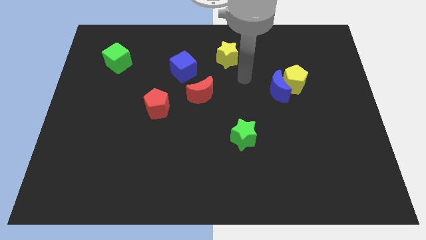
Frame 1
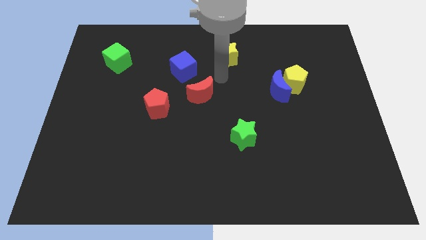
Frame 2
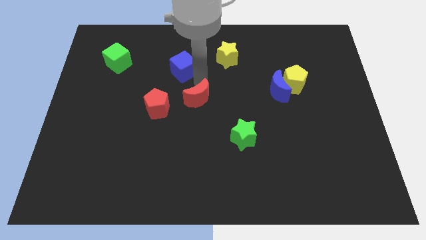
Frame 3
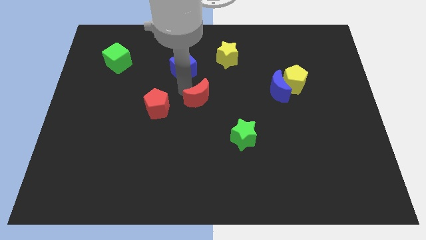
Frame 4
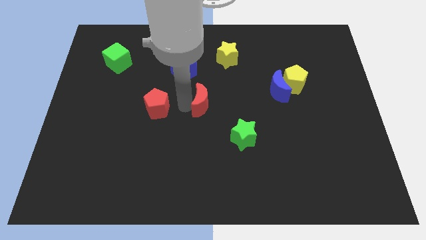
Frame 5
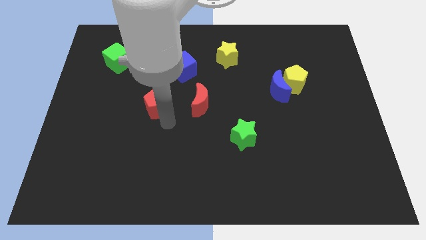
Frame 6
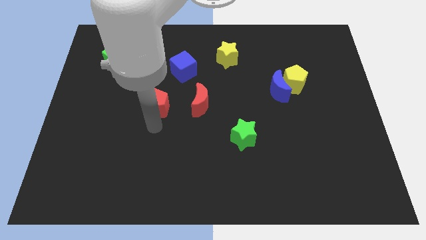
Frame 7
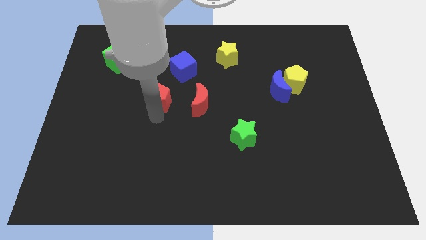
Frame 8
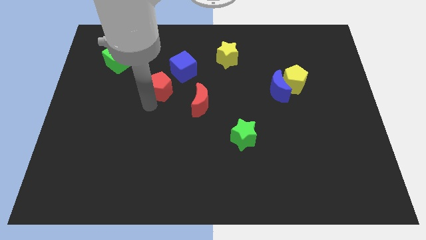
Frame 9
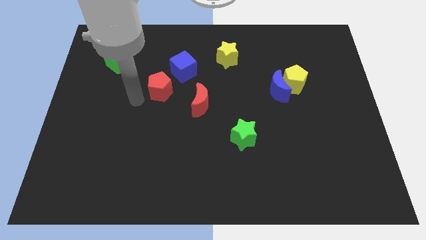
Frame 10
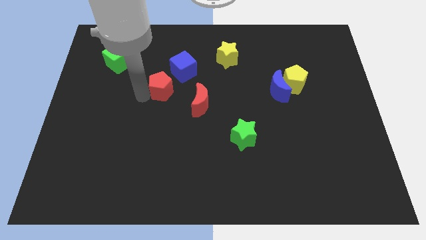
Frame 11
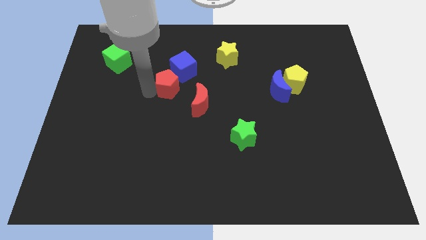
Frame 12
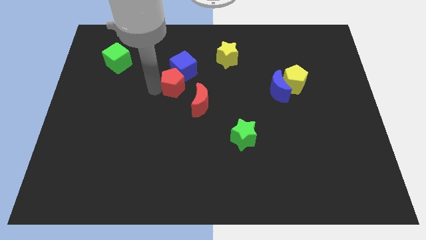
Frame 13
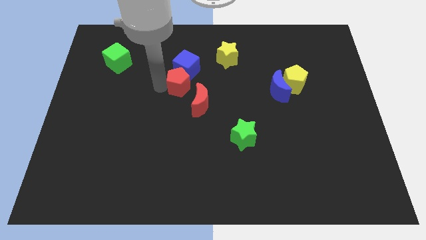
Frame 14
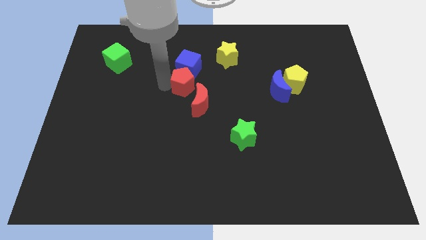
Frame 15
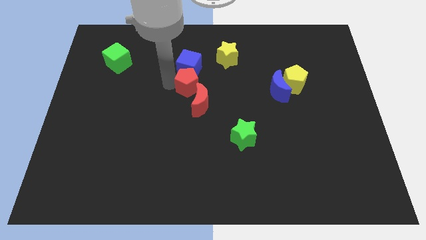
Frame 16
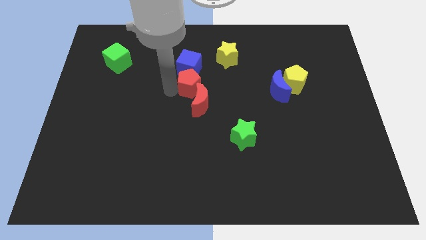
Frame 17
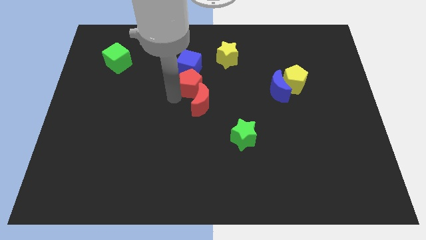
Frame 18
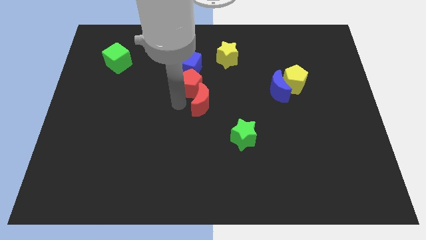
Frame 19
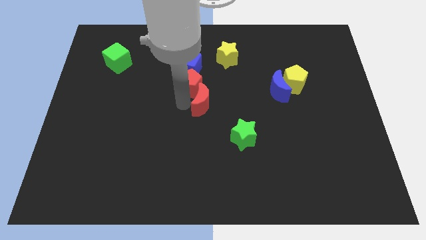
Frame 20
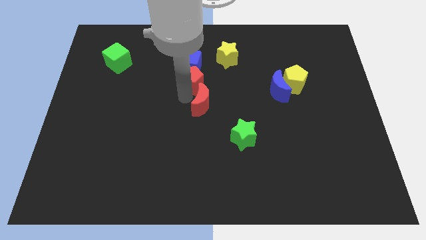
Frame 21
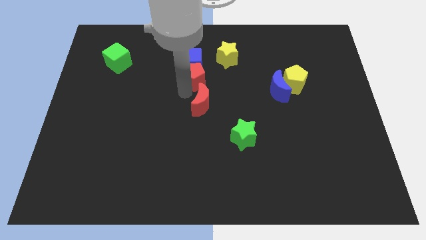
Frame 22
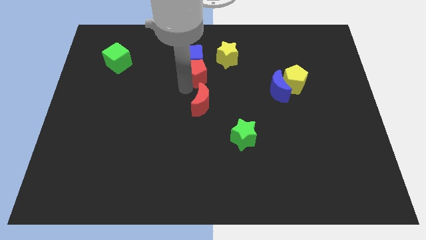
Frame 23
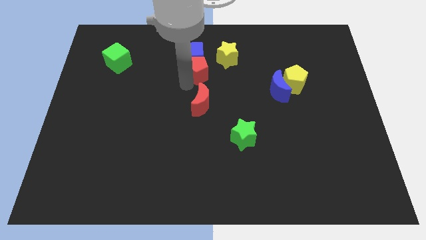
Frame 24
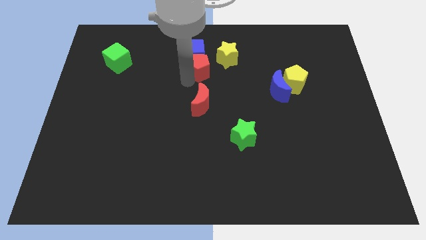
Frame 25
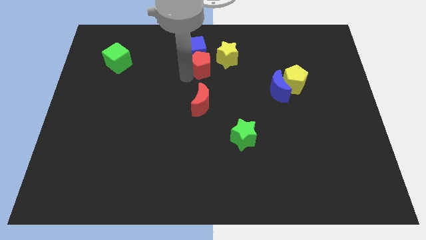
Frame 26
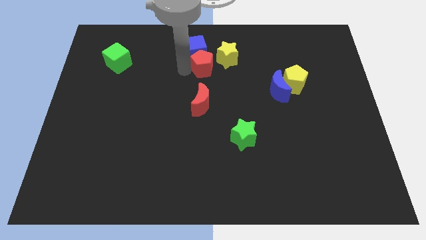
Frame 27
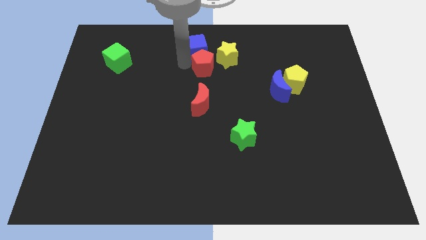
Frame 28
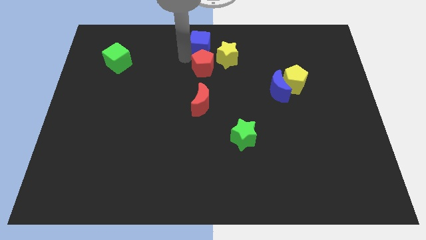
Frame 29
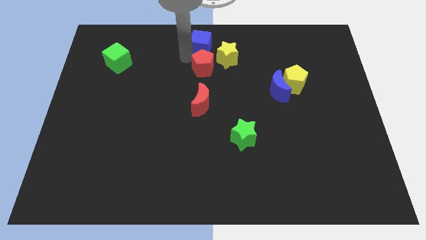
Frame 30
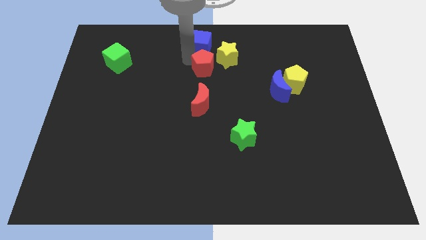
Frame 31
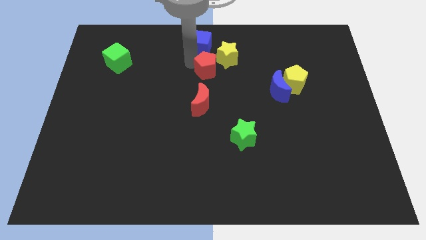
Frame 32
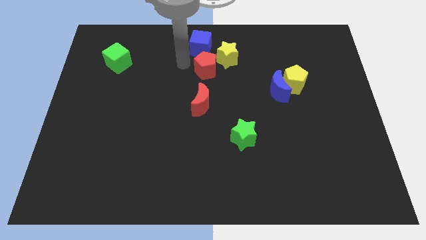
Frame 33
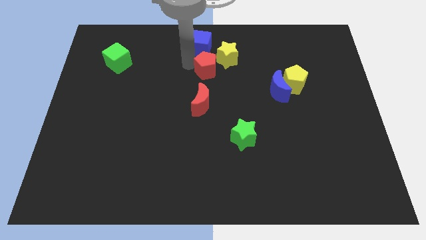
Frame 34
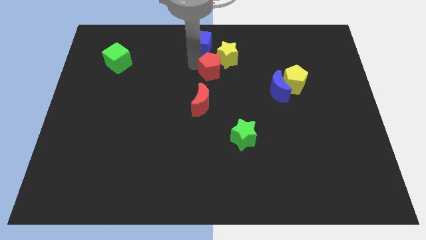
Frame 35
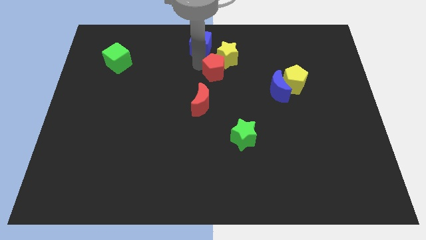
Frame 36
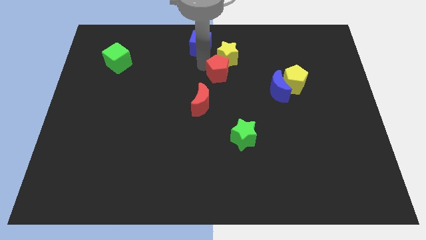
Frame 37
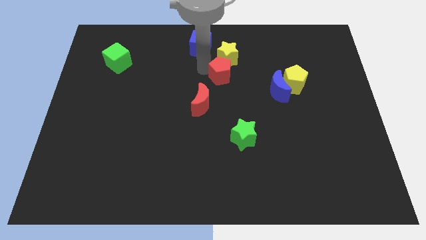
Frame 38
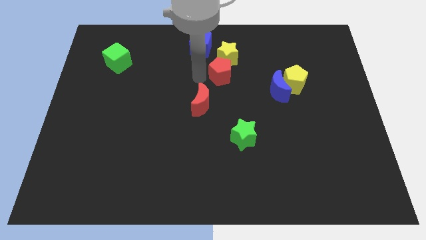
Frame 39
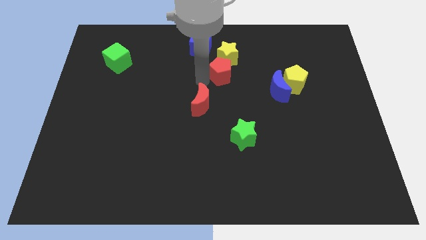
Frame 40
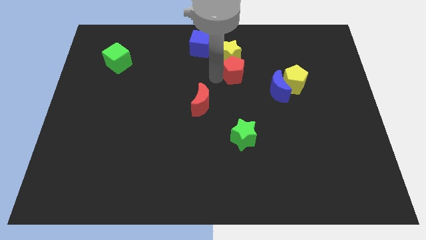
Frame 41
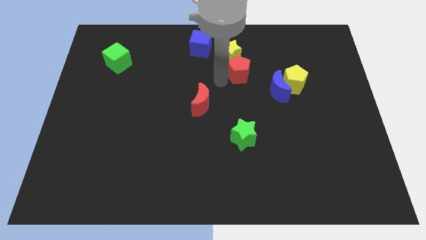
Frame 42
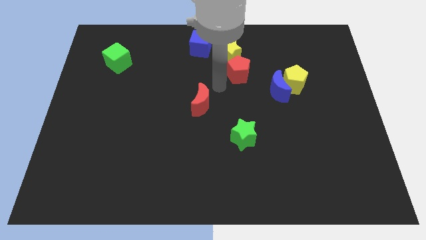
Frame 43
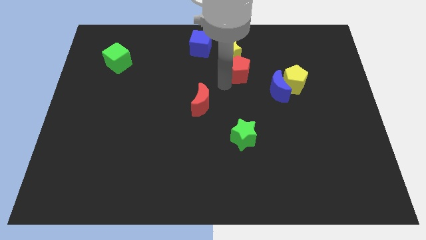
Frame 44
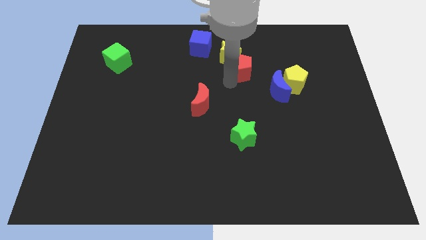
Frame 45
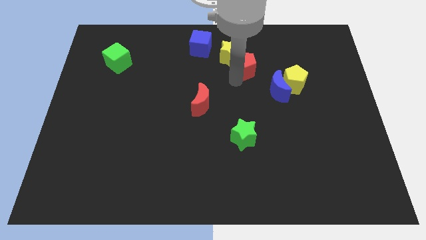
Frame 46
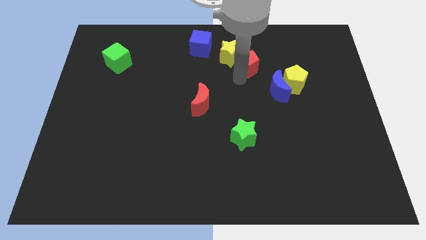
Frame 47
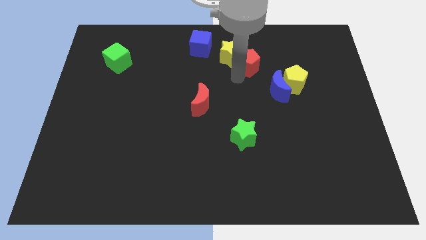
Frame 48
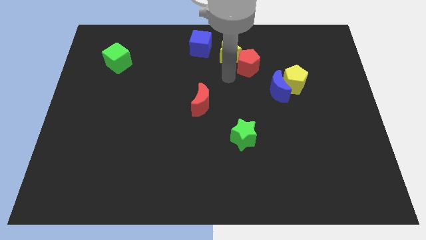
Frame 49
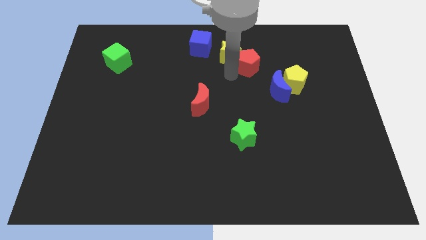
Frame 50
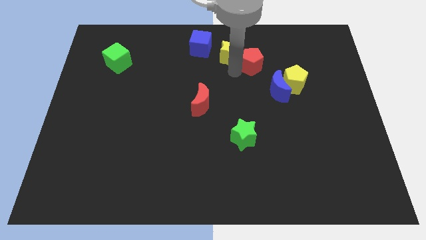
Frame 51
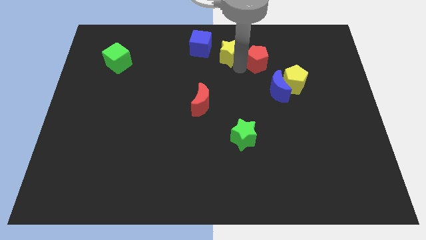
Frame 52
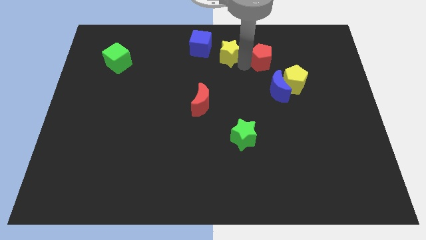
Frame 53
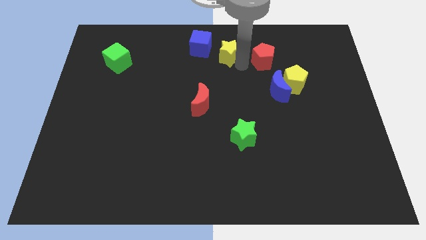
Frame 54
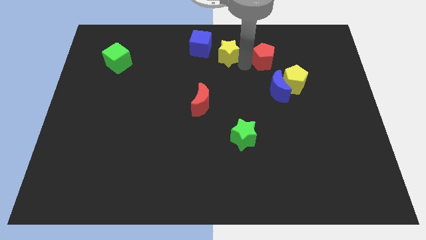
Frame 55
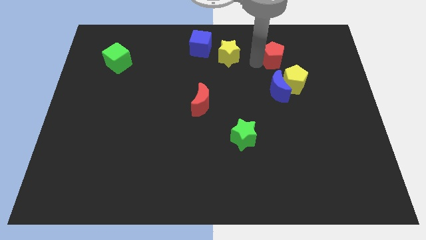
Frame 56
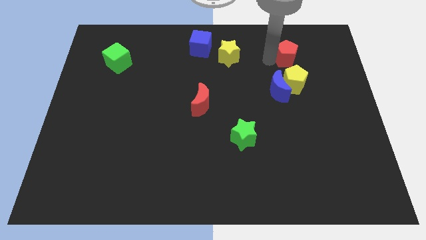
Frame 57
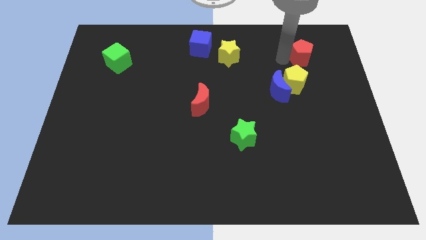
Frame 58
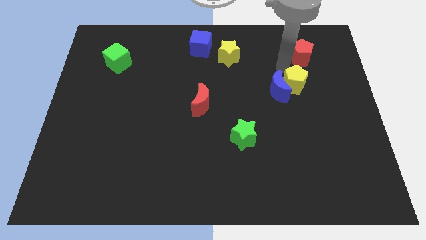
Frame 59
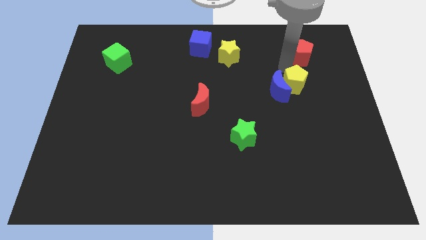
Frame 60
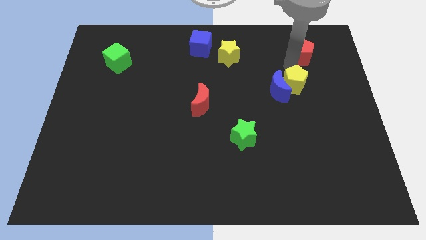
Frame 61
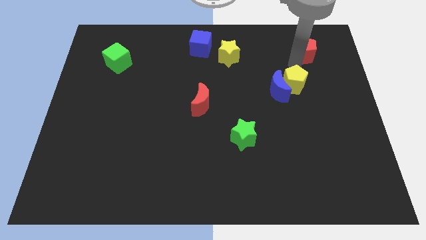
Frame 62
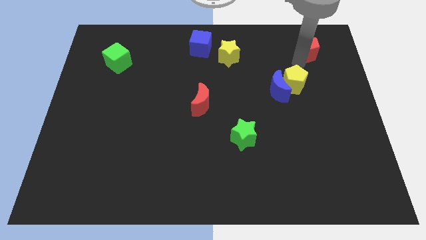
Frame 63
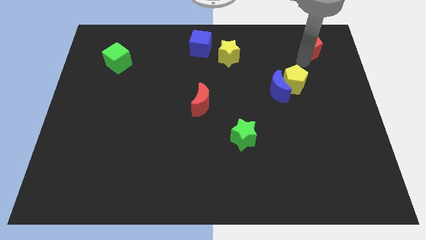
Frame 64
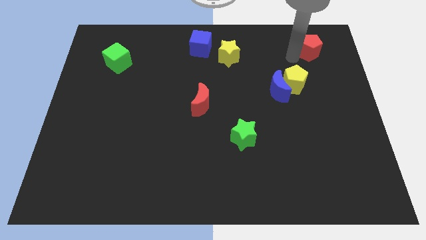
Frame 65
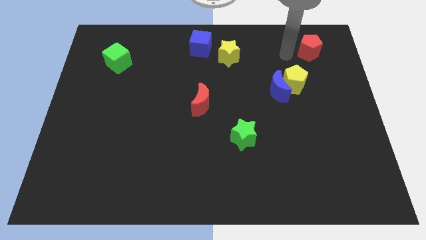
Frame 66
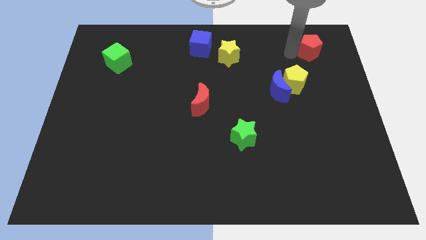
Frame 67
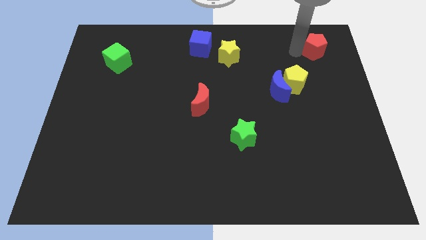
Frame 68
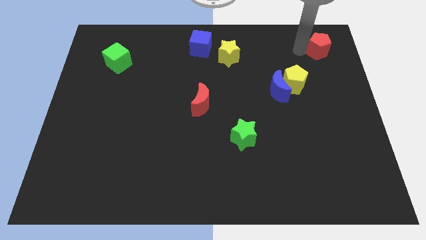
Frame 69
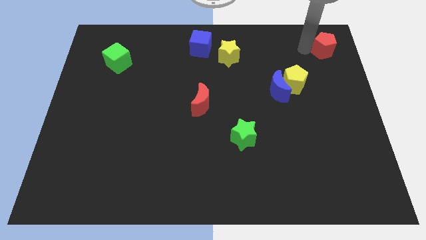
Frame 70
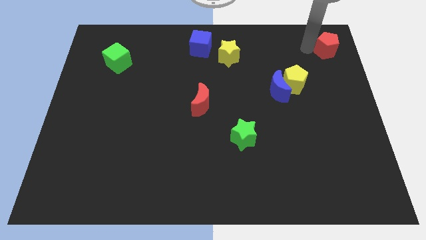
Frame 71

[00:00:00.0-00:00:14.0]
push the red pentagon to the top right corner
